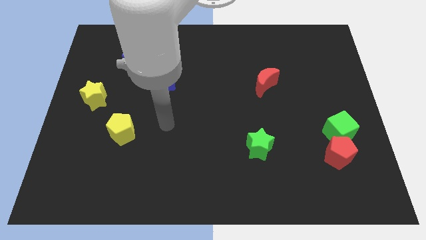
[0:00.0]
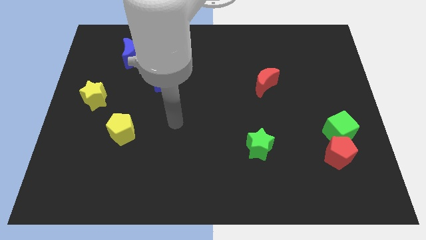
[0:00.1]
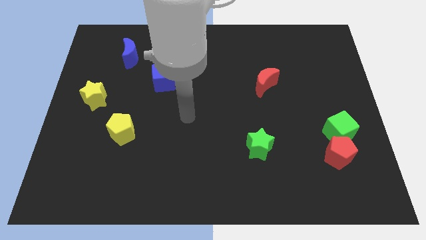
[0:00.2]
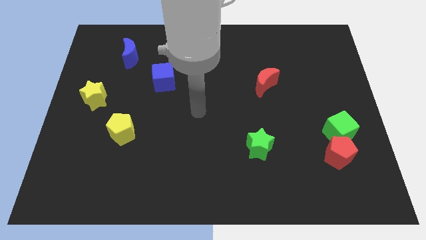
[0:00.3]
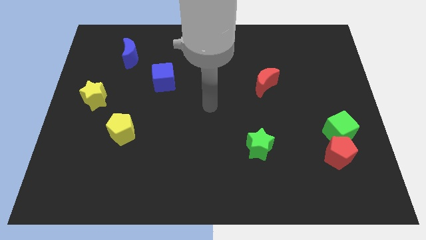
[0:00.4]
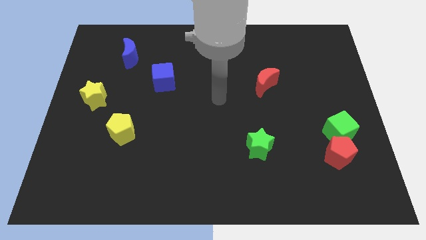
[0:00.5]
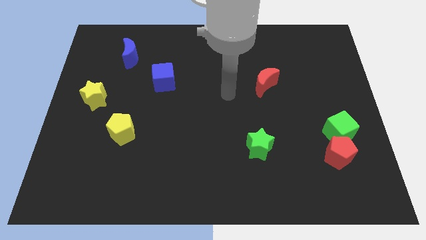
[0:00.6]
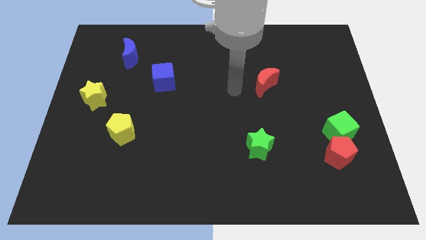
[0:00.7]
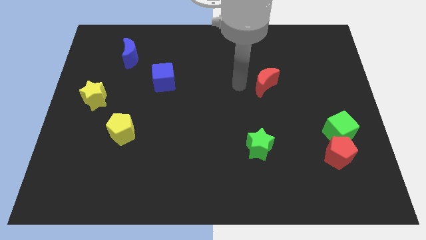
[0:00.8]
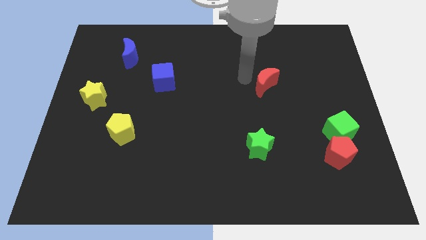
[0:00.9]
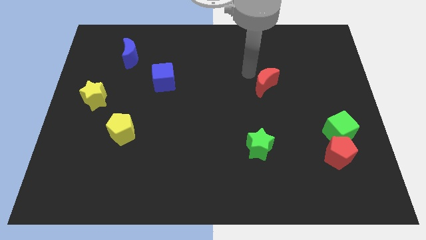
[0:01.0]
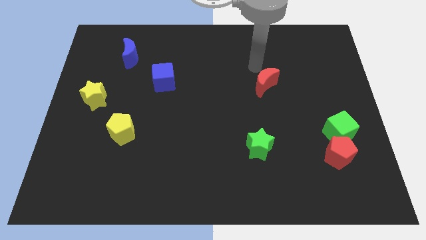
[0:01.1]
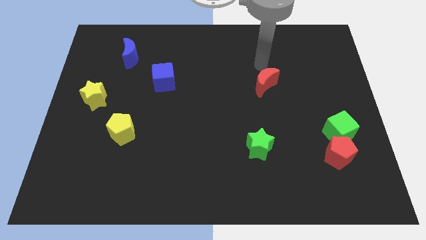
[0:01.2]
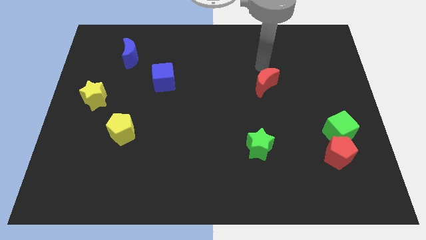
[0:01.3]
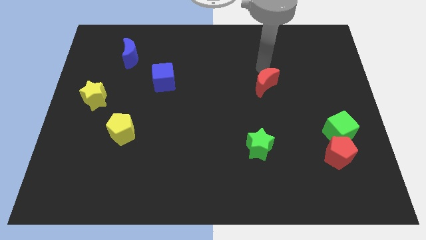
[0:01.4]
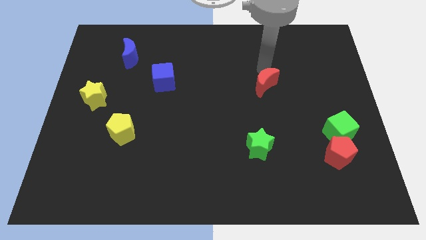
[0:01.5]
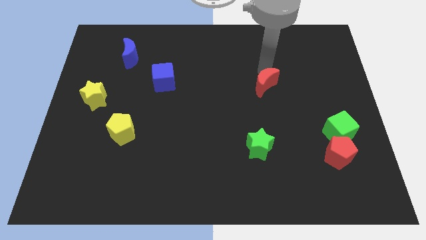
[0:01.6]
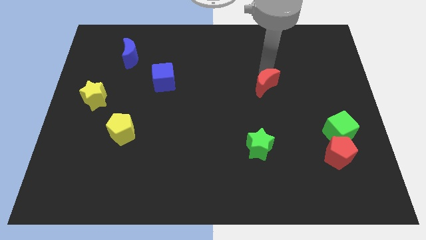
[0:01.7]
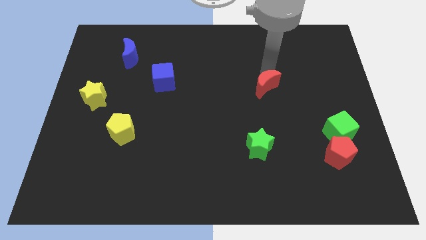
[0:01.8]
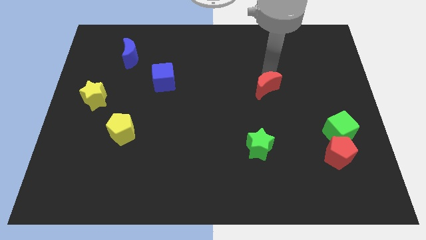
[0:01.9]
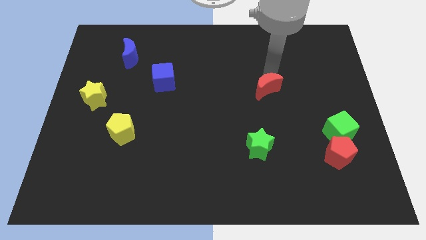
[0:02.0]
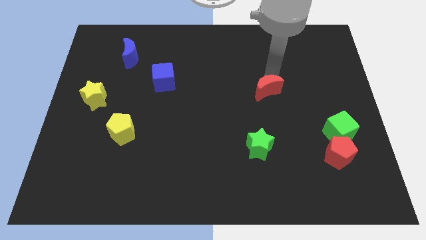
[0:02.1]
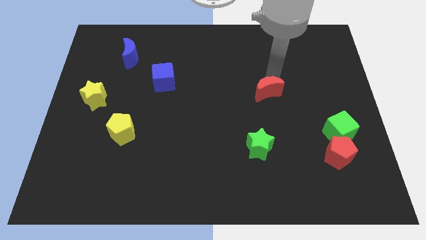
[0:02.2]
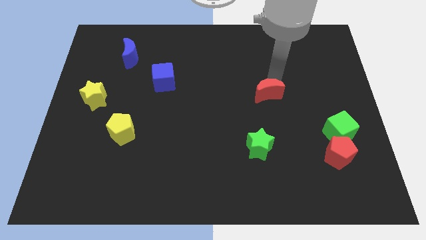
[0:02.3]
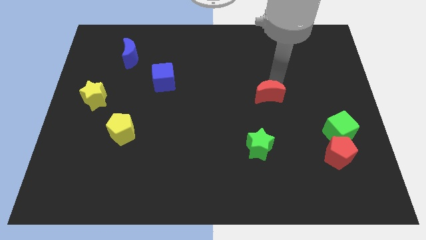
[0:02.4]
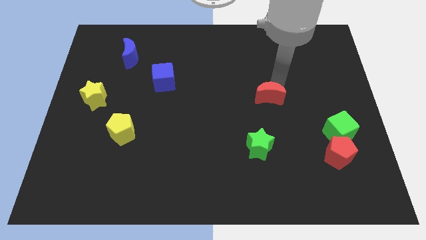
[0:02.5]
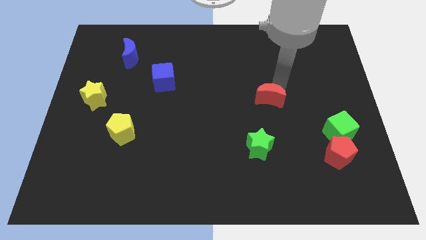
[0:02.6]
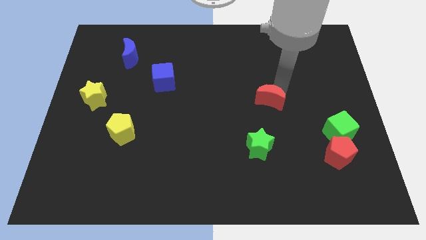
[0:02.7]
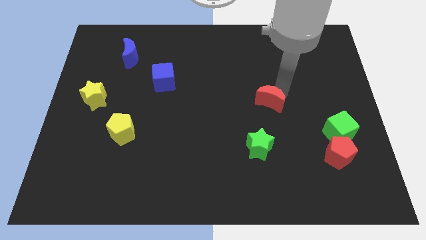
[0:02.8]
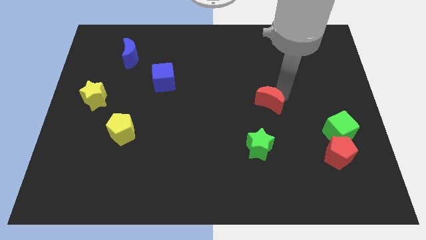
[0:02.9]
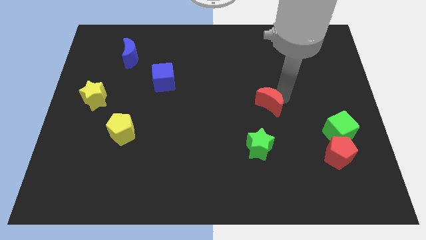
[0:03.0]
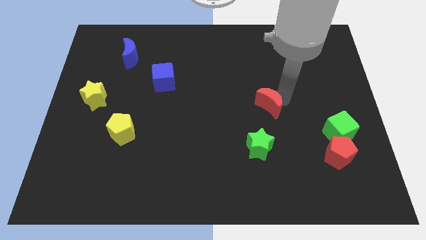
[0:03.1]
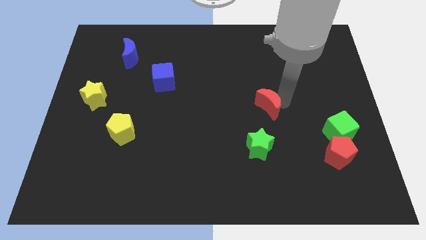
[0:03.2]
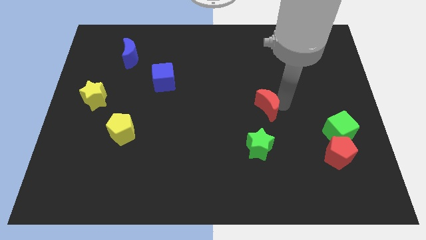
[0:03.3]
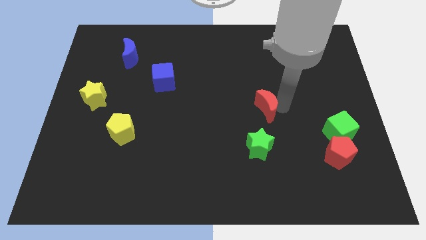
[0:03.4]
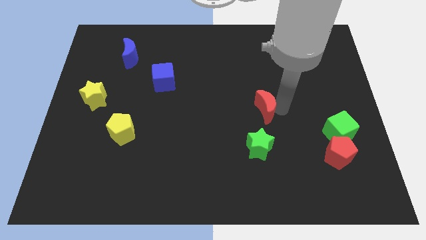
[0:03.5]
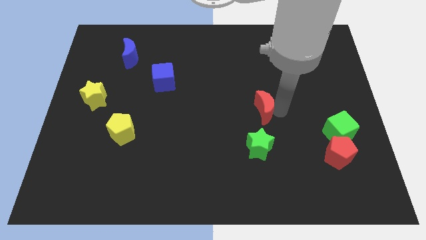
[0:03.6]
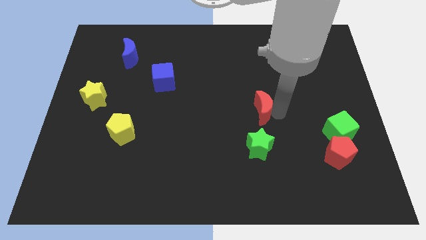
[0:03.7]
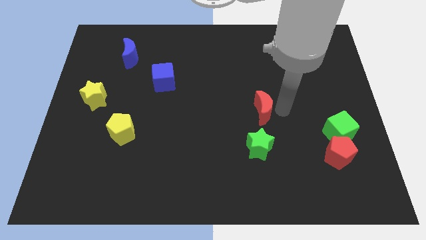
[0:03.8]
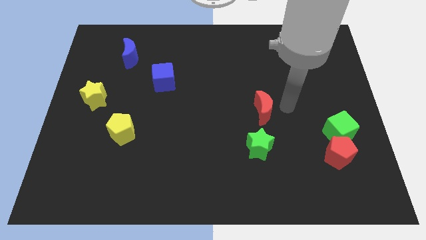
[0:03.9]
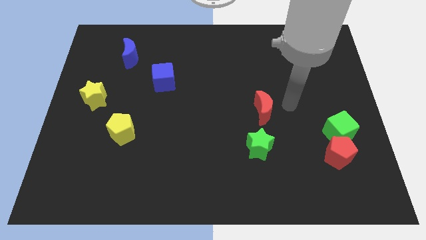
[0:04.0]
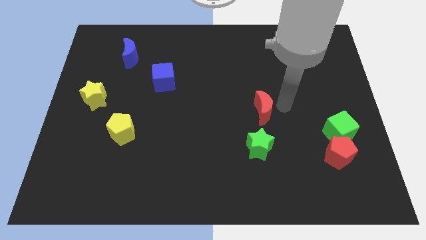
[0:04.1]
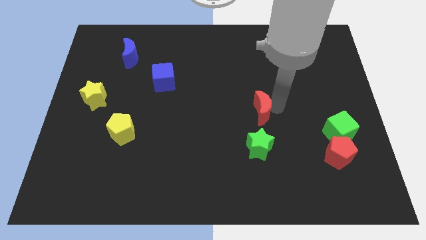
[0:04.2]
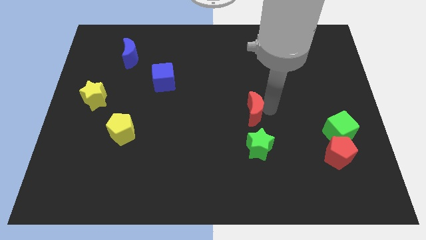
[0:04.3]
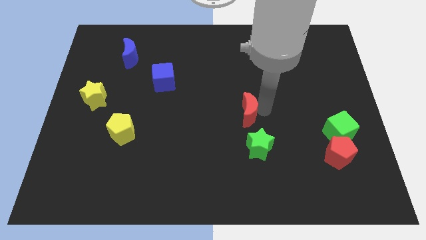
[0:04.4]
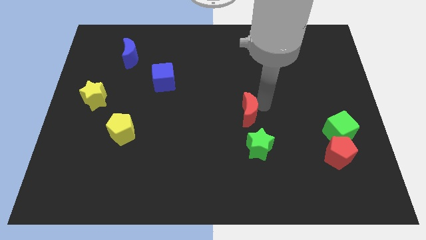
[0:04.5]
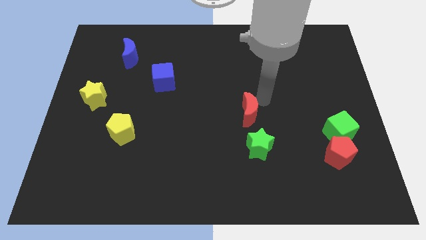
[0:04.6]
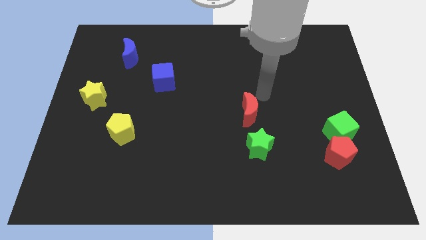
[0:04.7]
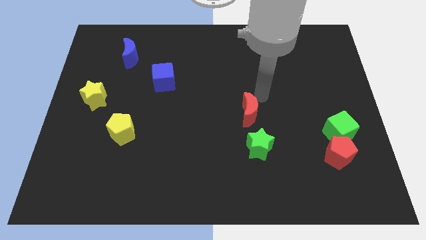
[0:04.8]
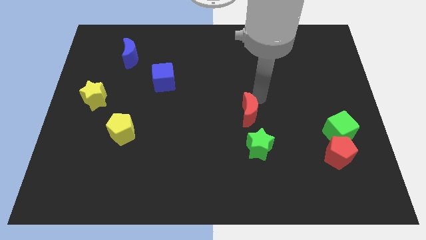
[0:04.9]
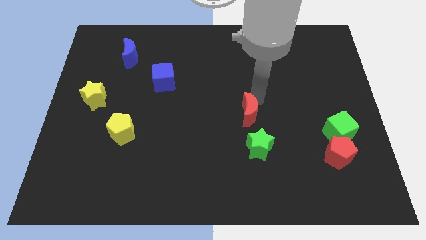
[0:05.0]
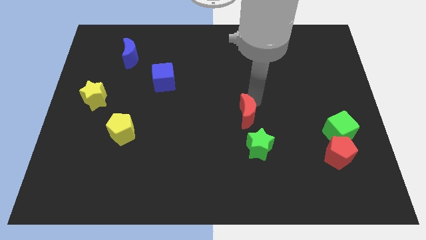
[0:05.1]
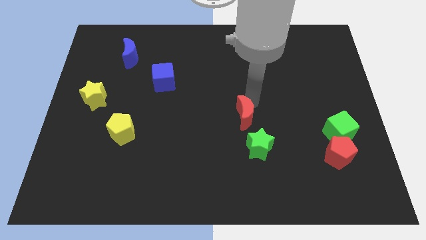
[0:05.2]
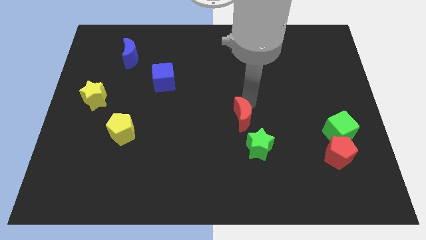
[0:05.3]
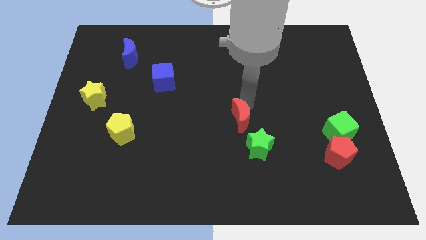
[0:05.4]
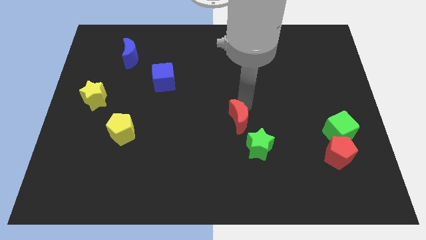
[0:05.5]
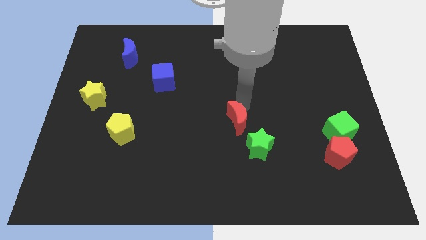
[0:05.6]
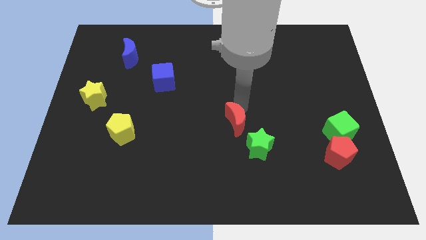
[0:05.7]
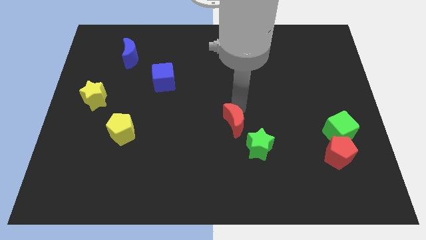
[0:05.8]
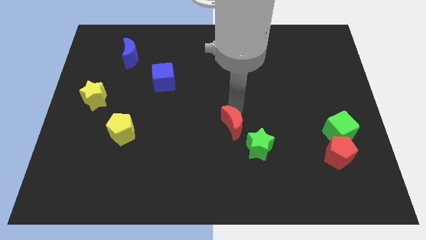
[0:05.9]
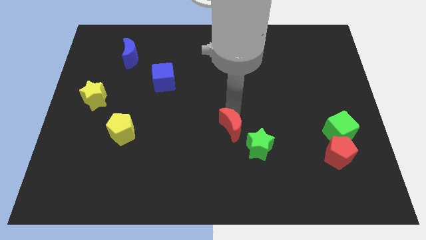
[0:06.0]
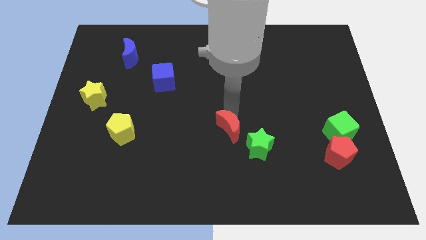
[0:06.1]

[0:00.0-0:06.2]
slide the red moon just left of the green star

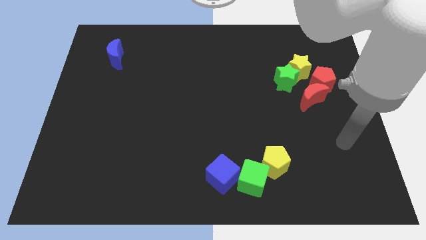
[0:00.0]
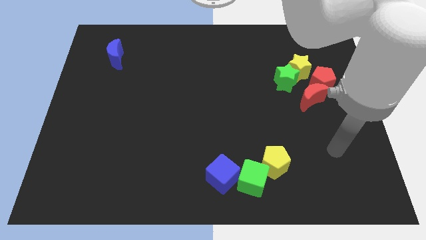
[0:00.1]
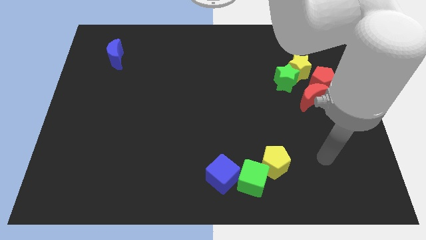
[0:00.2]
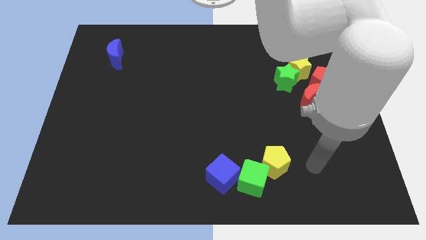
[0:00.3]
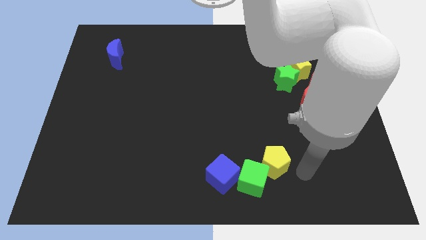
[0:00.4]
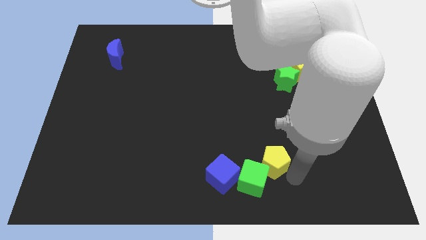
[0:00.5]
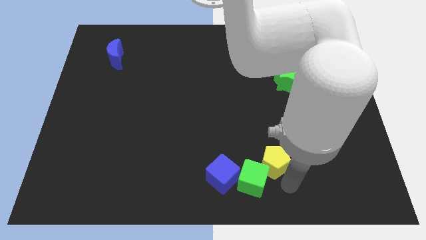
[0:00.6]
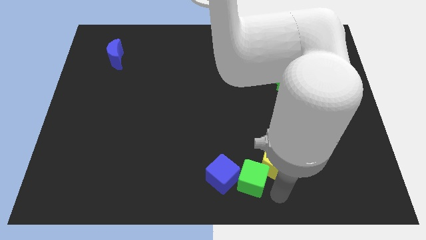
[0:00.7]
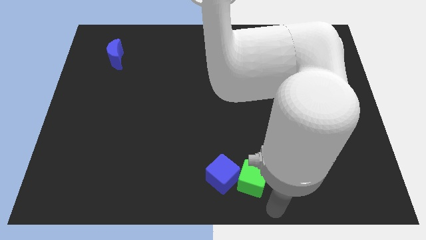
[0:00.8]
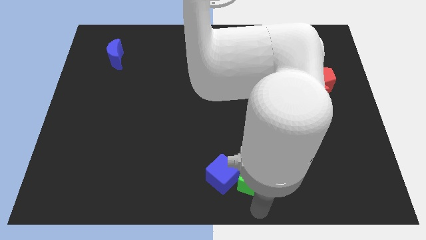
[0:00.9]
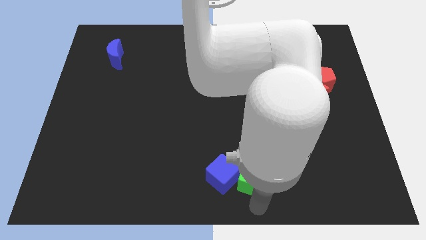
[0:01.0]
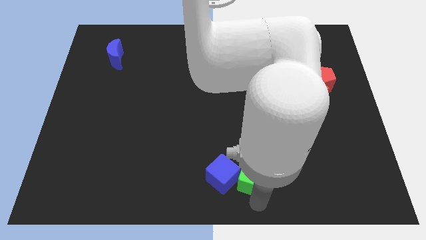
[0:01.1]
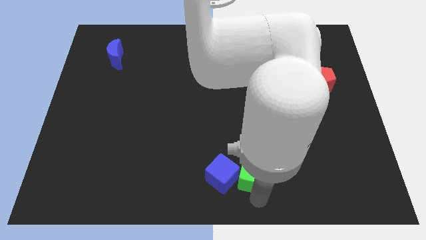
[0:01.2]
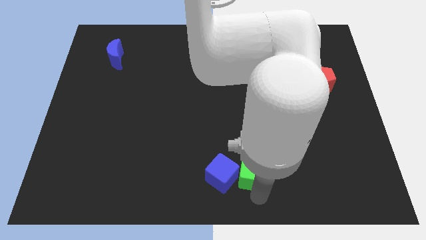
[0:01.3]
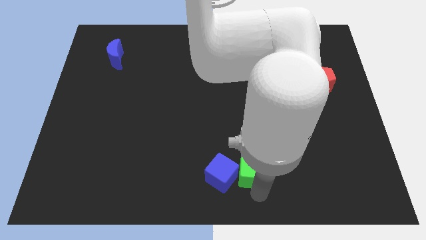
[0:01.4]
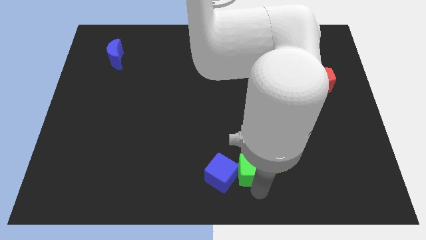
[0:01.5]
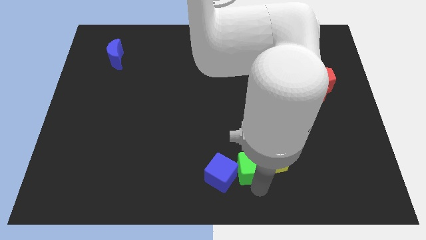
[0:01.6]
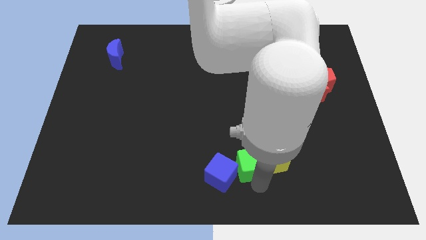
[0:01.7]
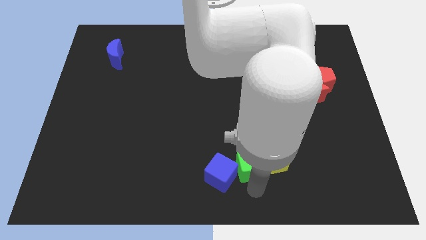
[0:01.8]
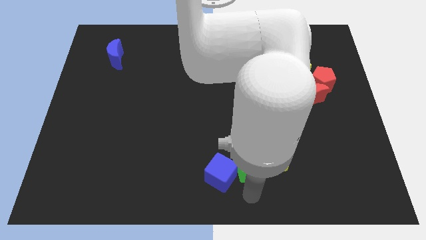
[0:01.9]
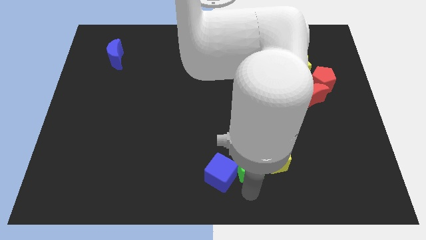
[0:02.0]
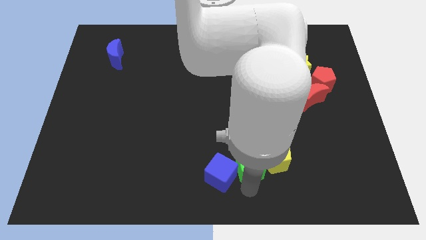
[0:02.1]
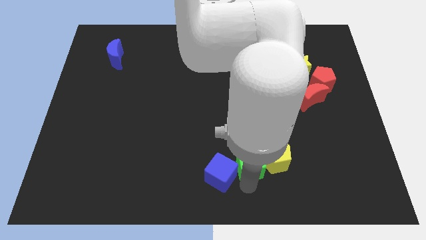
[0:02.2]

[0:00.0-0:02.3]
push the green cube to the top left of the yellow pentagon
